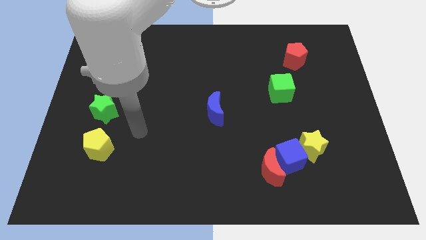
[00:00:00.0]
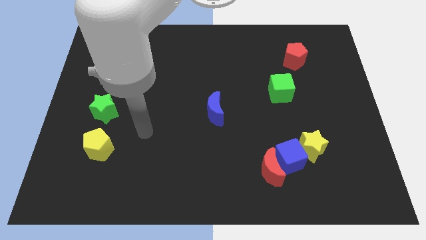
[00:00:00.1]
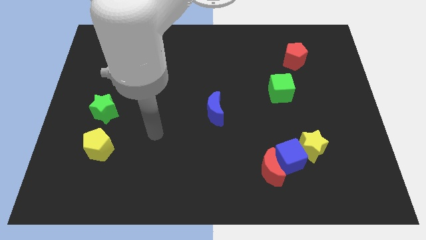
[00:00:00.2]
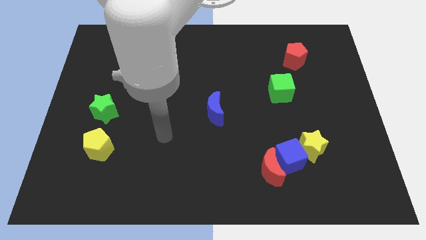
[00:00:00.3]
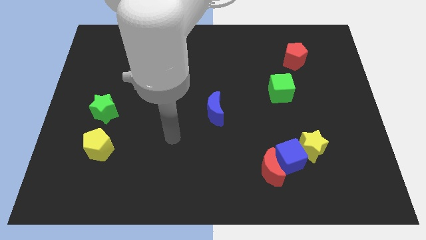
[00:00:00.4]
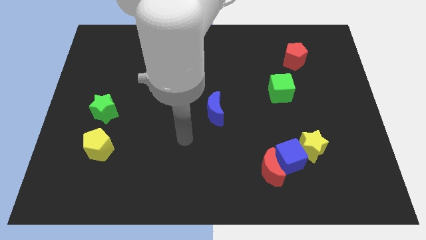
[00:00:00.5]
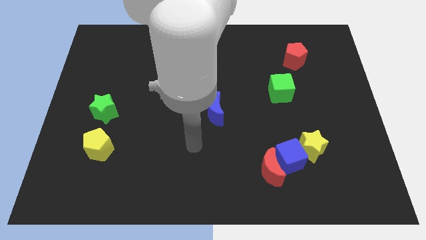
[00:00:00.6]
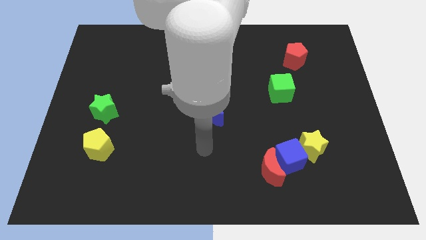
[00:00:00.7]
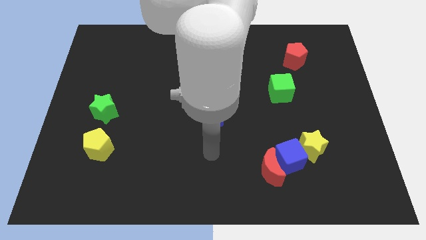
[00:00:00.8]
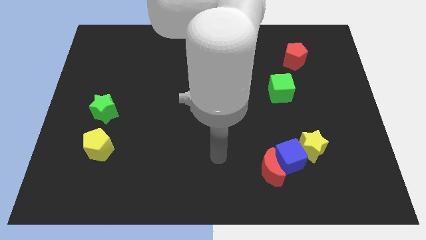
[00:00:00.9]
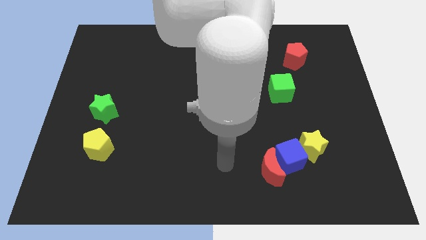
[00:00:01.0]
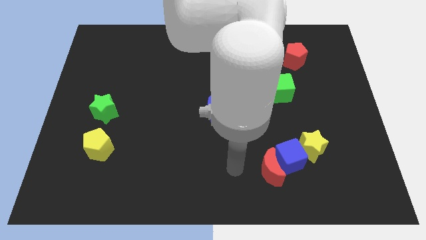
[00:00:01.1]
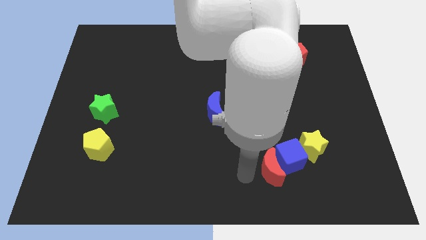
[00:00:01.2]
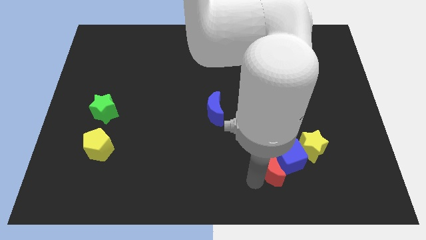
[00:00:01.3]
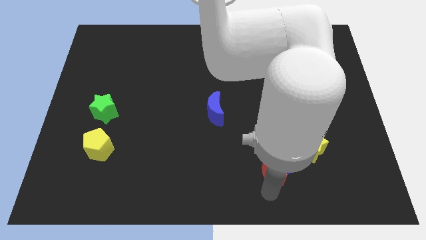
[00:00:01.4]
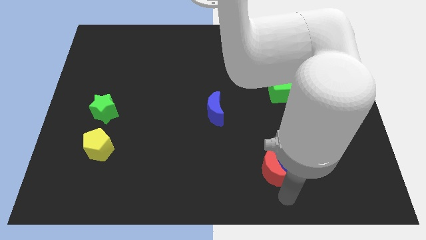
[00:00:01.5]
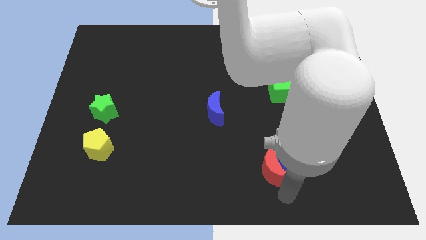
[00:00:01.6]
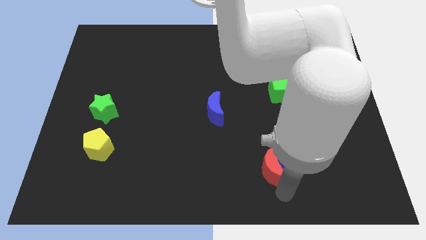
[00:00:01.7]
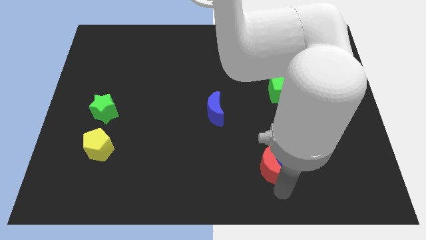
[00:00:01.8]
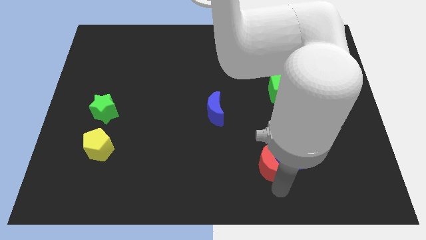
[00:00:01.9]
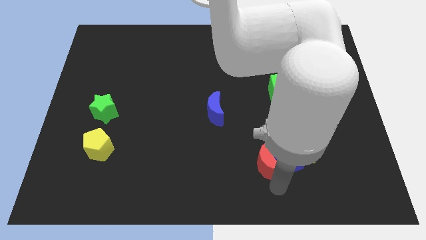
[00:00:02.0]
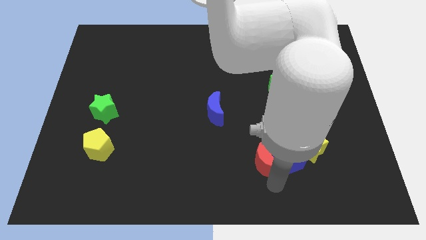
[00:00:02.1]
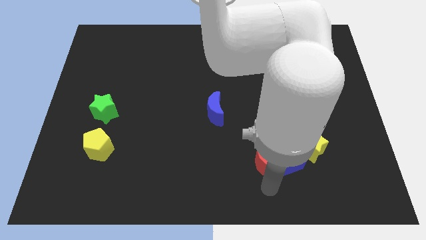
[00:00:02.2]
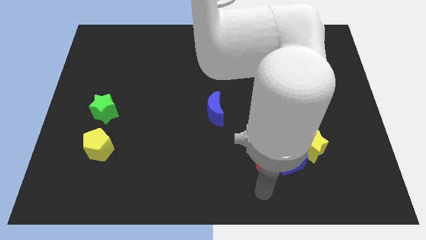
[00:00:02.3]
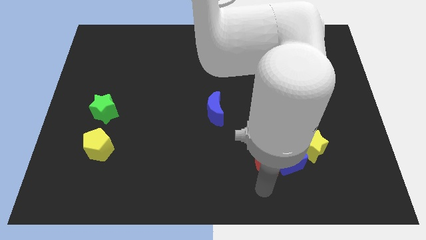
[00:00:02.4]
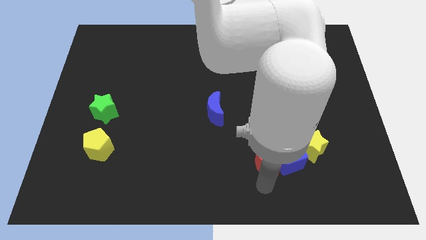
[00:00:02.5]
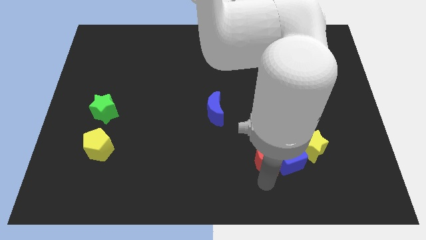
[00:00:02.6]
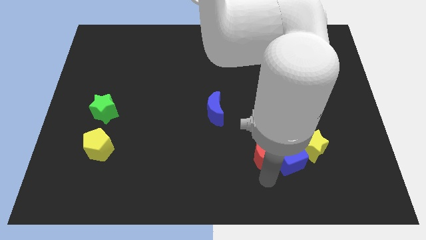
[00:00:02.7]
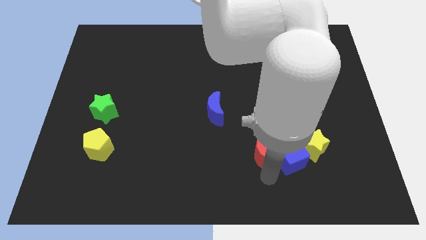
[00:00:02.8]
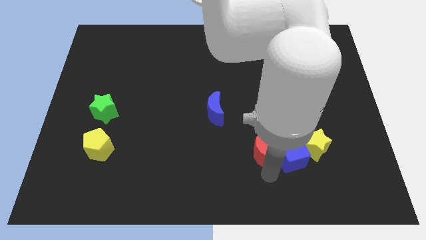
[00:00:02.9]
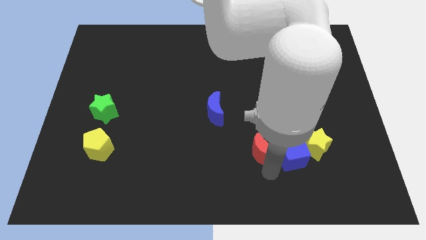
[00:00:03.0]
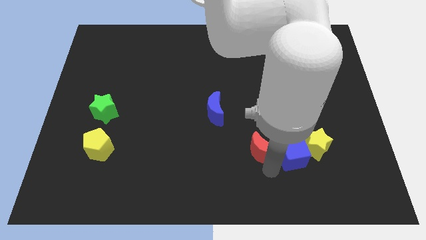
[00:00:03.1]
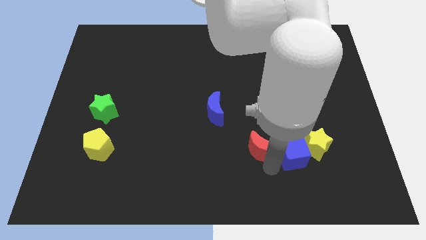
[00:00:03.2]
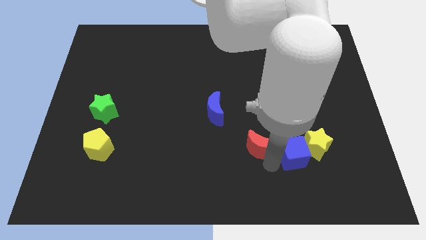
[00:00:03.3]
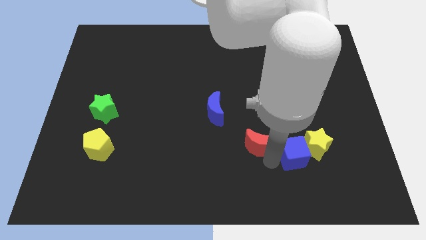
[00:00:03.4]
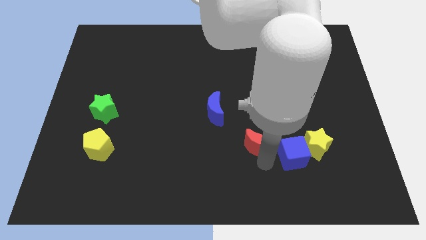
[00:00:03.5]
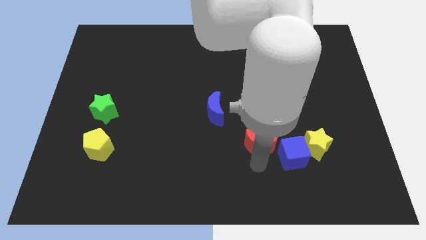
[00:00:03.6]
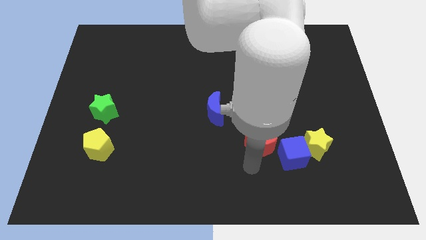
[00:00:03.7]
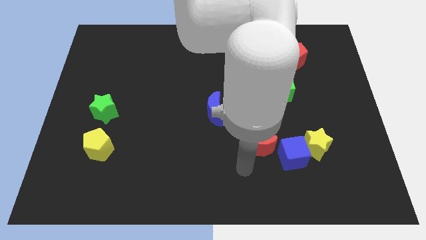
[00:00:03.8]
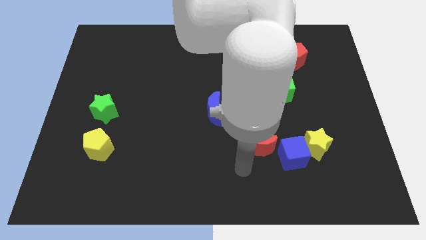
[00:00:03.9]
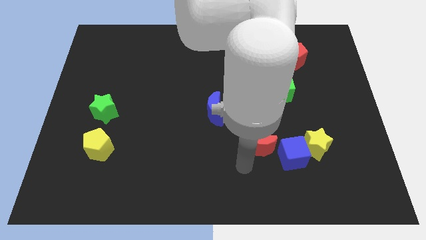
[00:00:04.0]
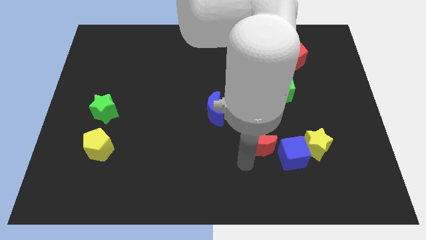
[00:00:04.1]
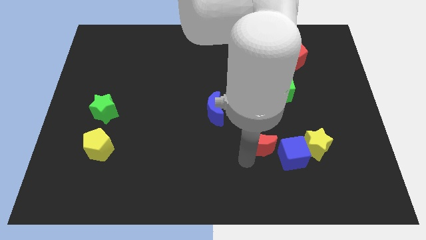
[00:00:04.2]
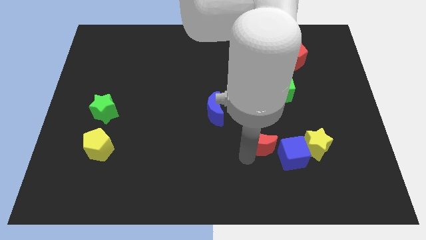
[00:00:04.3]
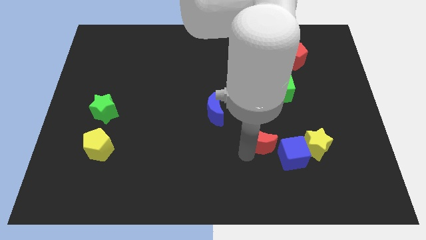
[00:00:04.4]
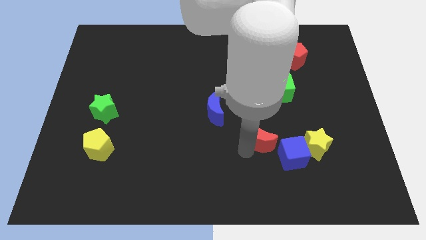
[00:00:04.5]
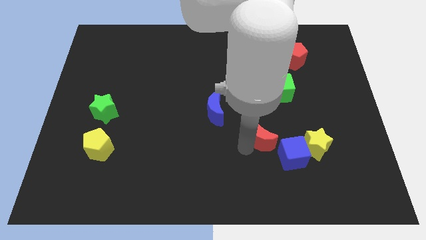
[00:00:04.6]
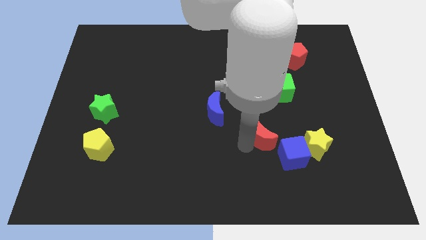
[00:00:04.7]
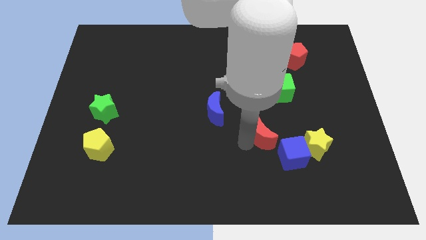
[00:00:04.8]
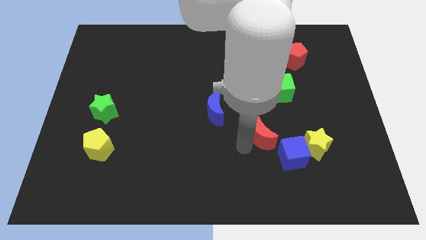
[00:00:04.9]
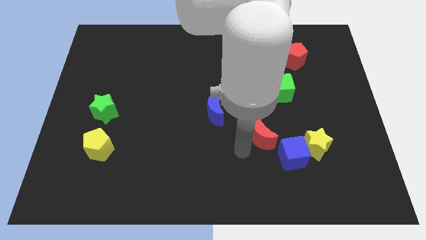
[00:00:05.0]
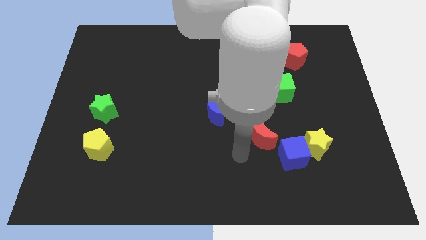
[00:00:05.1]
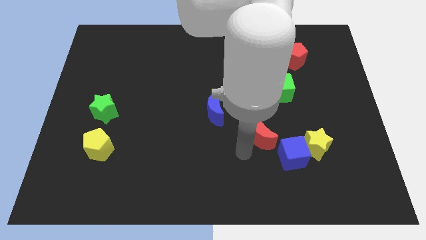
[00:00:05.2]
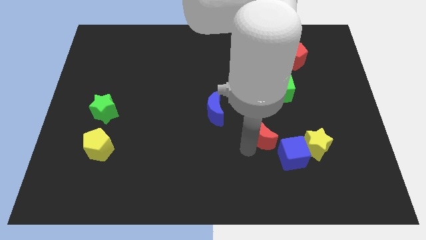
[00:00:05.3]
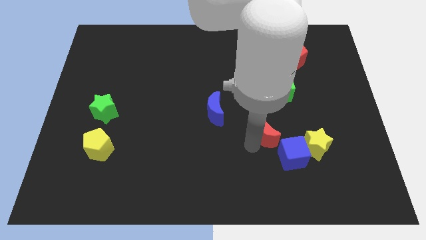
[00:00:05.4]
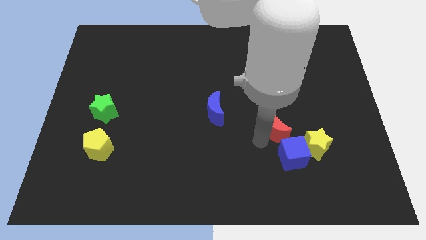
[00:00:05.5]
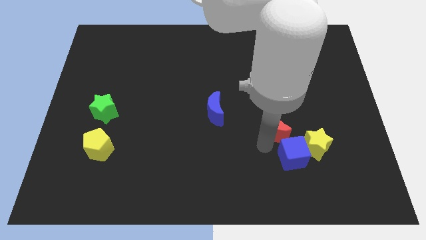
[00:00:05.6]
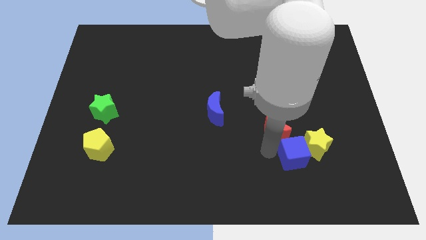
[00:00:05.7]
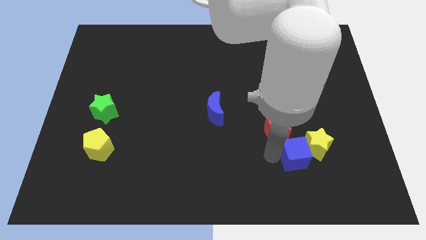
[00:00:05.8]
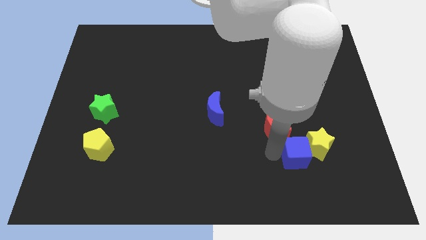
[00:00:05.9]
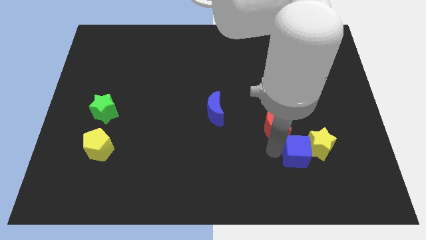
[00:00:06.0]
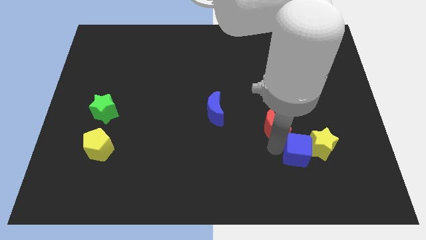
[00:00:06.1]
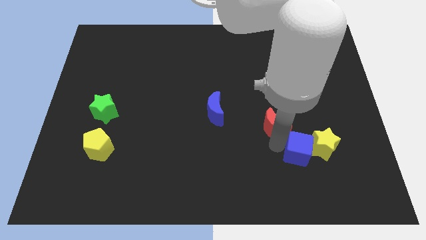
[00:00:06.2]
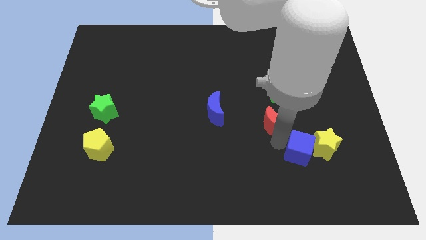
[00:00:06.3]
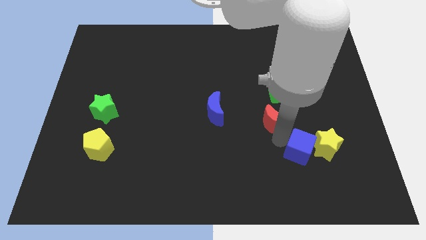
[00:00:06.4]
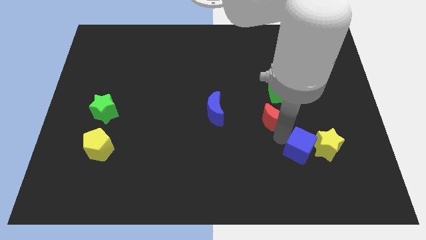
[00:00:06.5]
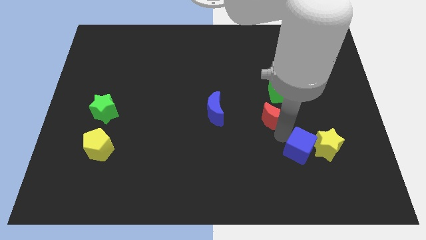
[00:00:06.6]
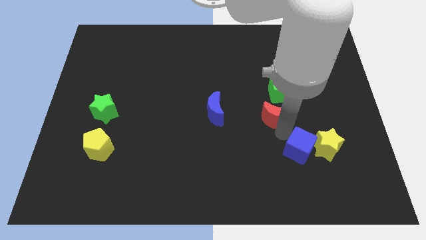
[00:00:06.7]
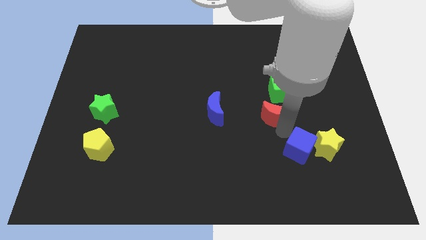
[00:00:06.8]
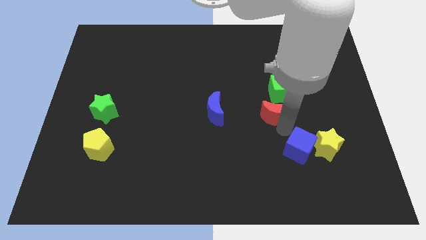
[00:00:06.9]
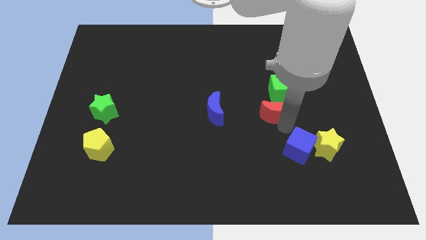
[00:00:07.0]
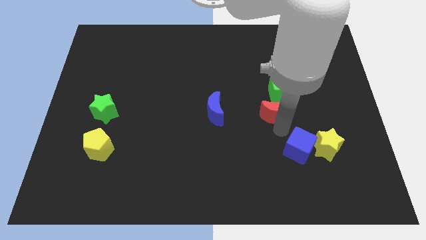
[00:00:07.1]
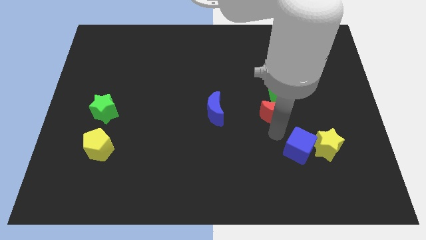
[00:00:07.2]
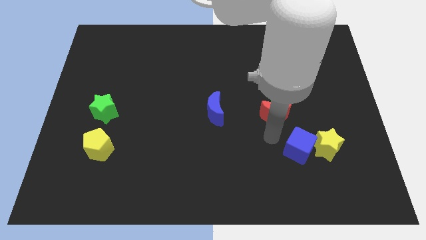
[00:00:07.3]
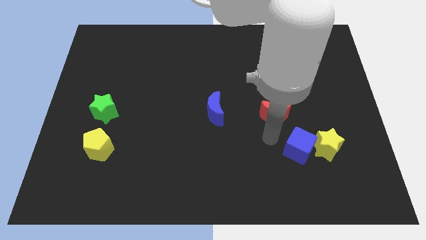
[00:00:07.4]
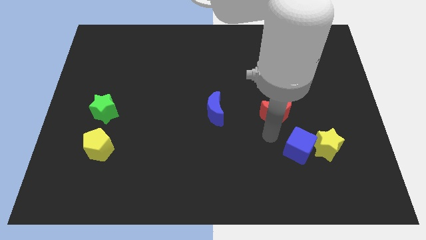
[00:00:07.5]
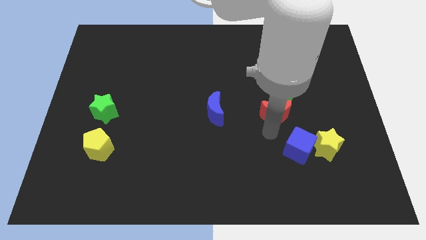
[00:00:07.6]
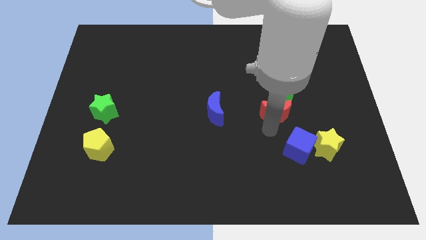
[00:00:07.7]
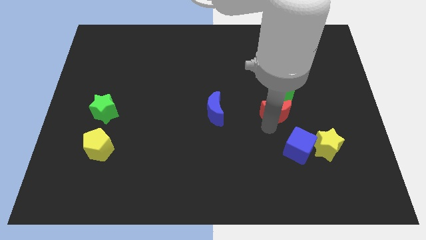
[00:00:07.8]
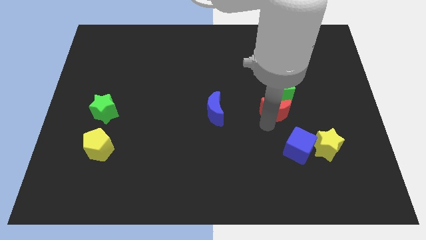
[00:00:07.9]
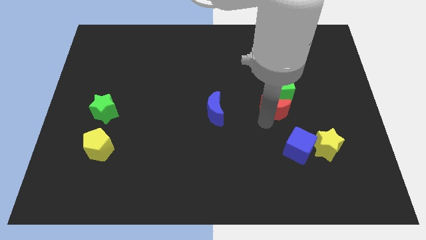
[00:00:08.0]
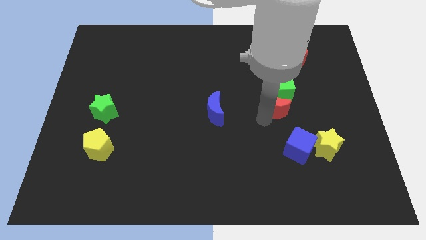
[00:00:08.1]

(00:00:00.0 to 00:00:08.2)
slide the red moon towards the green cube
